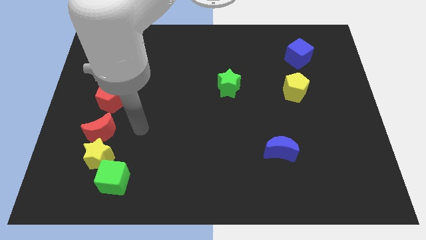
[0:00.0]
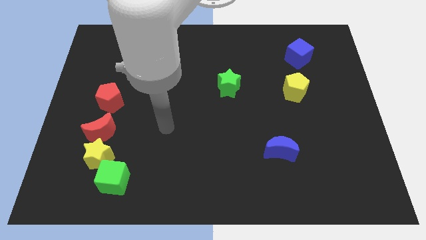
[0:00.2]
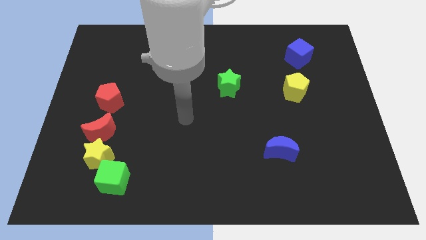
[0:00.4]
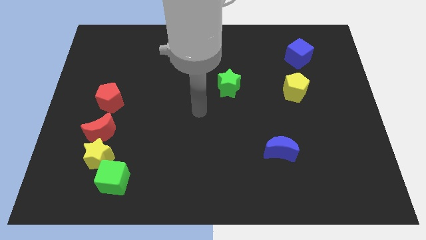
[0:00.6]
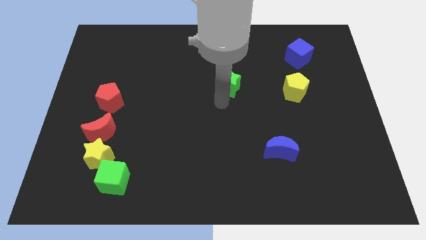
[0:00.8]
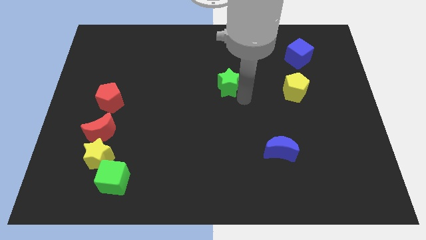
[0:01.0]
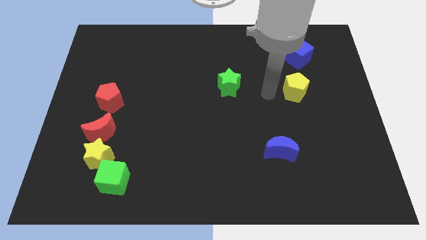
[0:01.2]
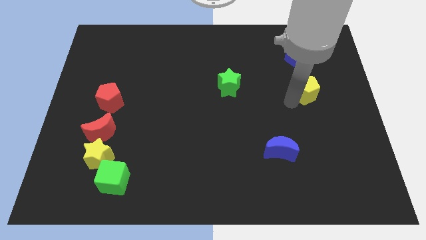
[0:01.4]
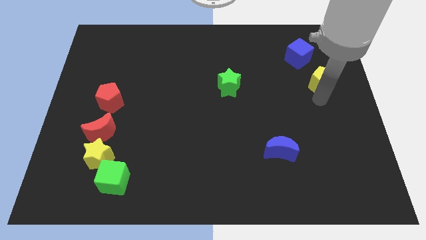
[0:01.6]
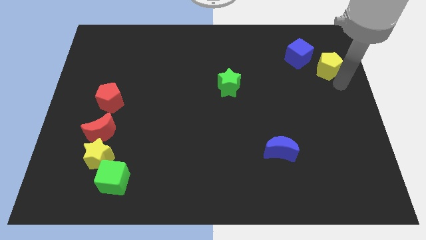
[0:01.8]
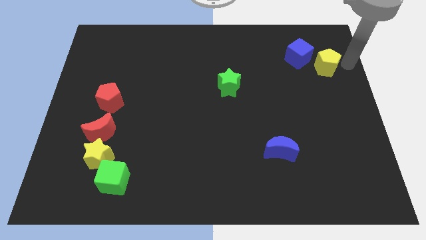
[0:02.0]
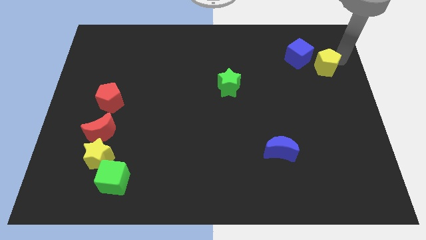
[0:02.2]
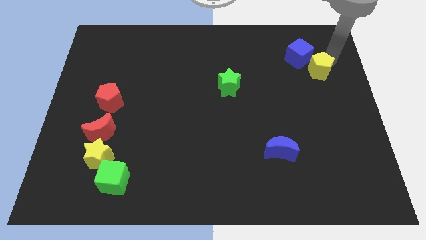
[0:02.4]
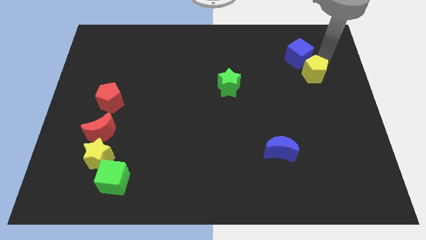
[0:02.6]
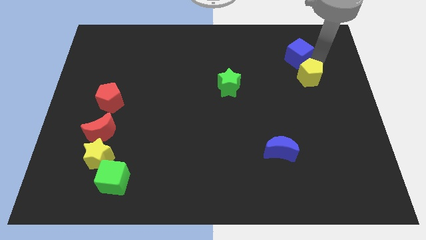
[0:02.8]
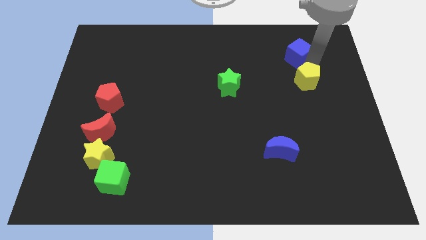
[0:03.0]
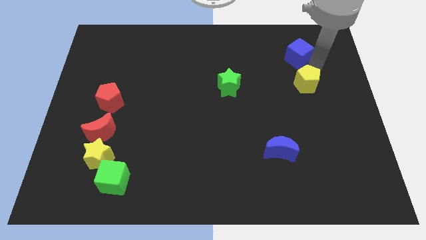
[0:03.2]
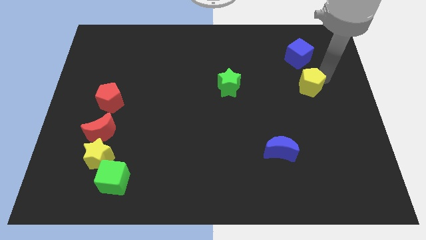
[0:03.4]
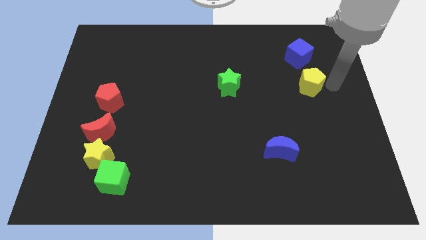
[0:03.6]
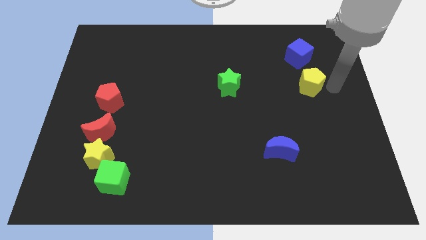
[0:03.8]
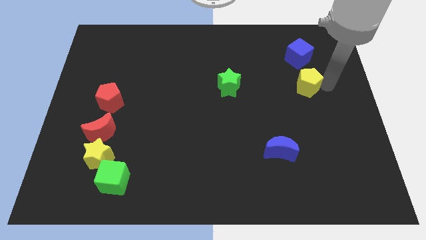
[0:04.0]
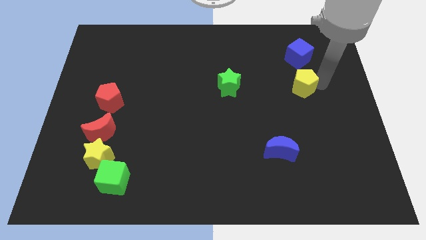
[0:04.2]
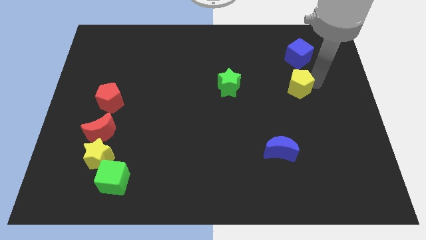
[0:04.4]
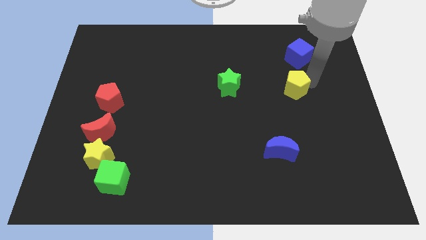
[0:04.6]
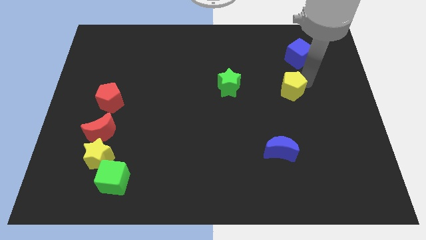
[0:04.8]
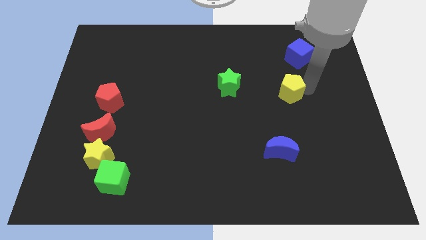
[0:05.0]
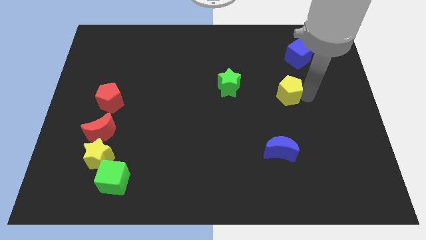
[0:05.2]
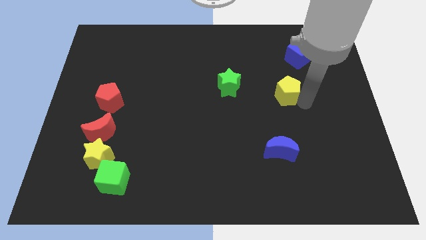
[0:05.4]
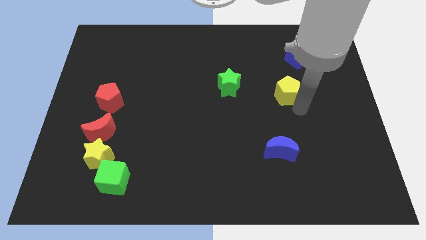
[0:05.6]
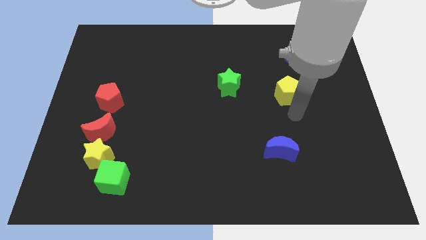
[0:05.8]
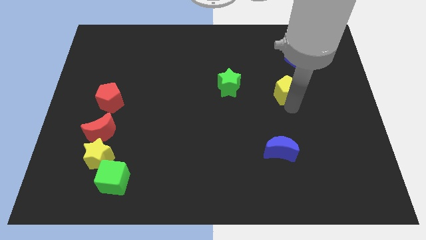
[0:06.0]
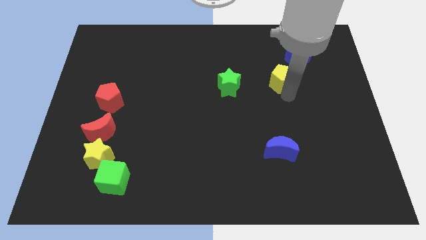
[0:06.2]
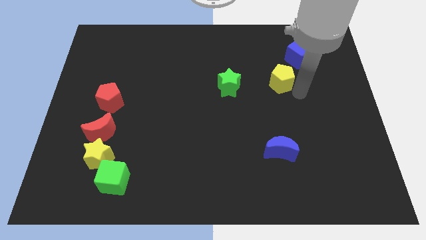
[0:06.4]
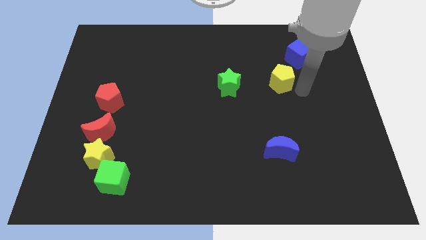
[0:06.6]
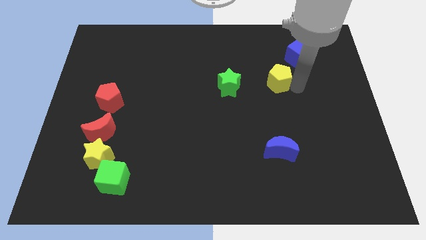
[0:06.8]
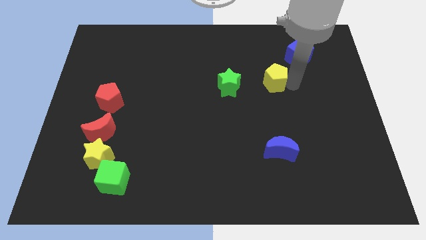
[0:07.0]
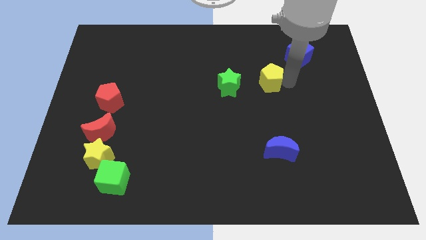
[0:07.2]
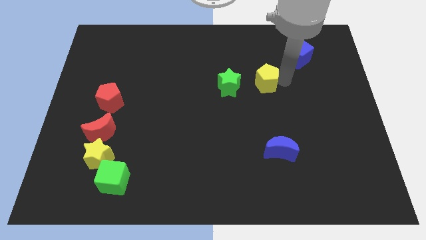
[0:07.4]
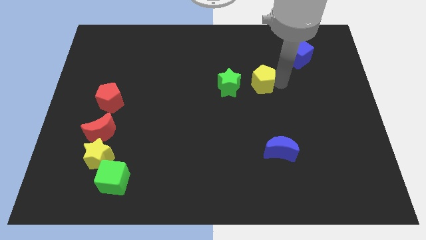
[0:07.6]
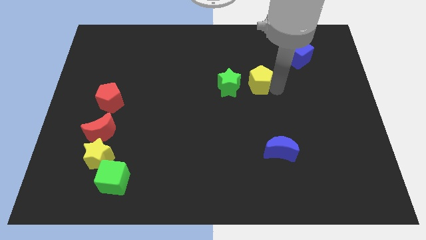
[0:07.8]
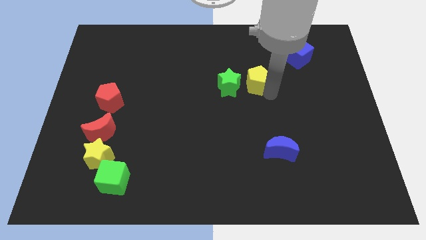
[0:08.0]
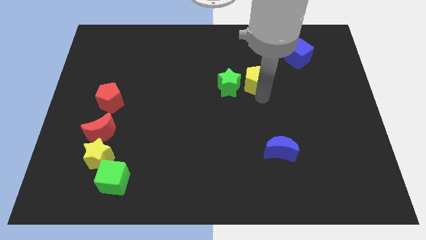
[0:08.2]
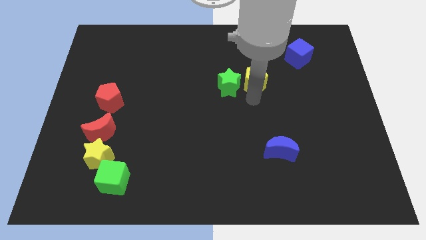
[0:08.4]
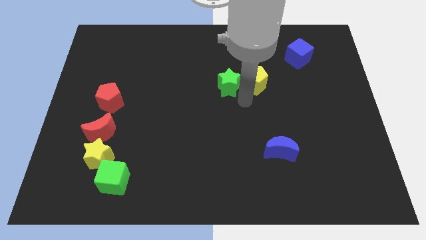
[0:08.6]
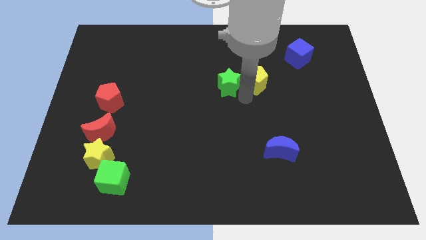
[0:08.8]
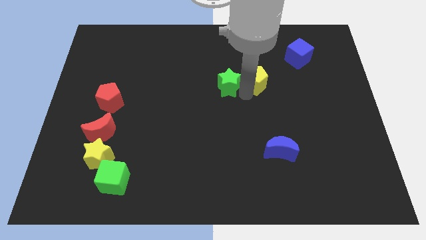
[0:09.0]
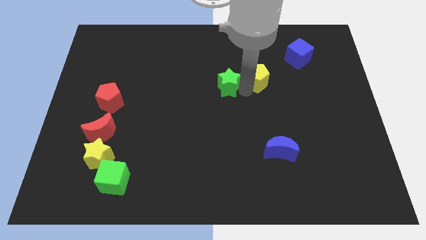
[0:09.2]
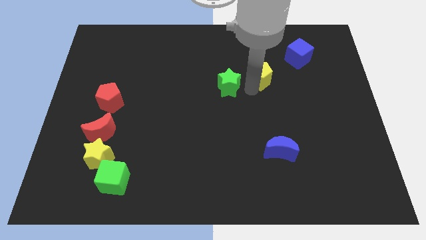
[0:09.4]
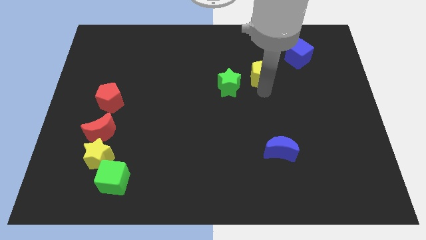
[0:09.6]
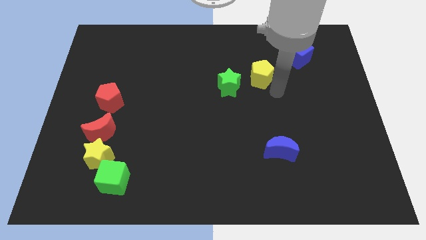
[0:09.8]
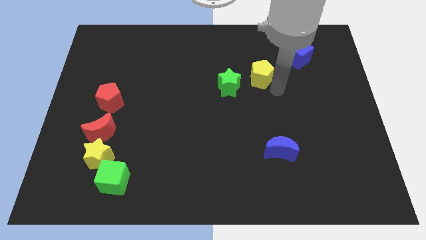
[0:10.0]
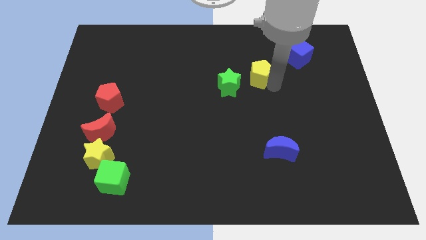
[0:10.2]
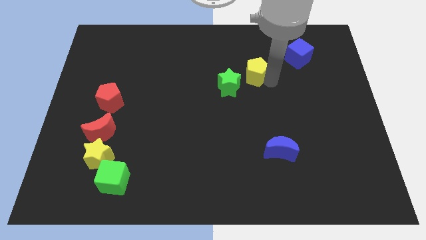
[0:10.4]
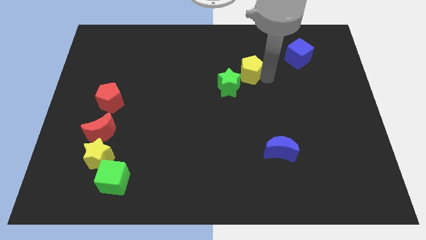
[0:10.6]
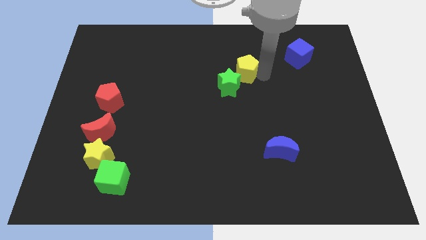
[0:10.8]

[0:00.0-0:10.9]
move the yellow pentagon to the top side of the green star

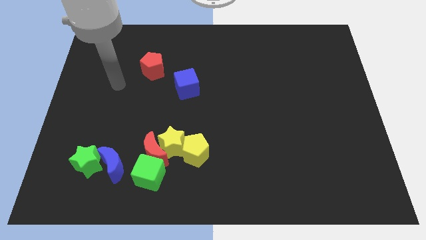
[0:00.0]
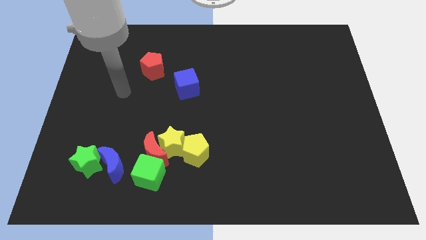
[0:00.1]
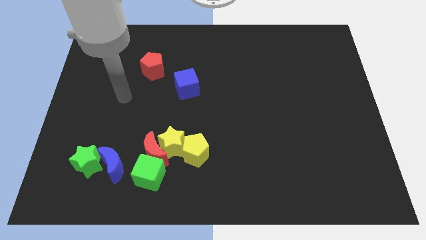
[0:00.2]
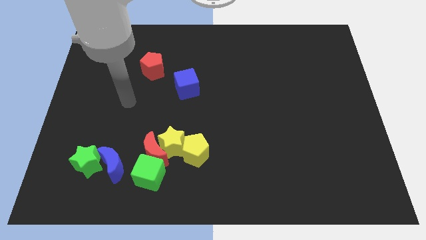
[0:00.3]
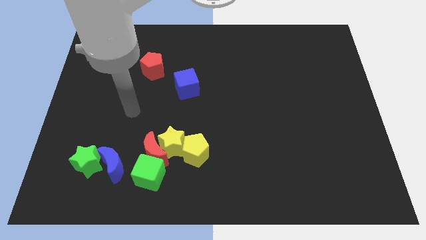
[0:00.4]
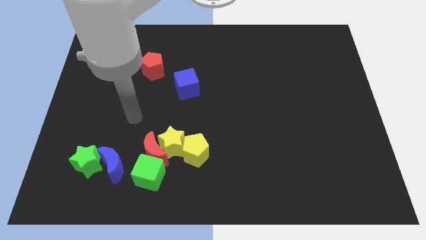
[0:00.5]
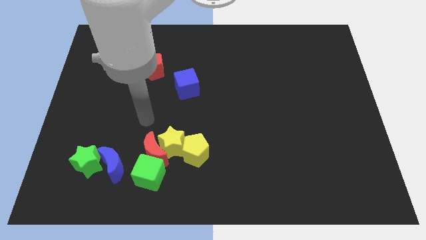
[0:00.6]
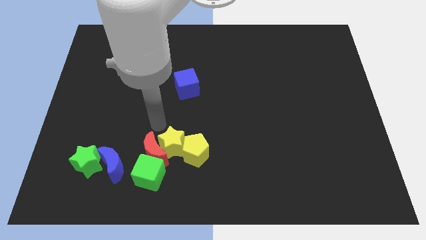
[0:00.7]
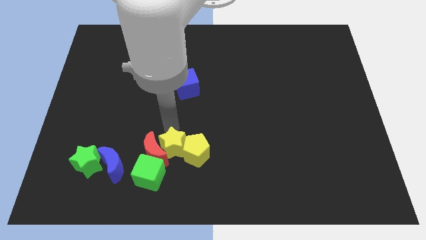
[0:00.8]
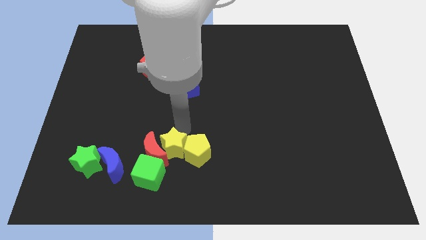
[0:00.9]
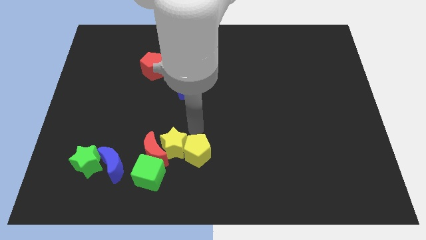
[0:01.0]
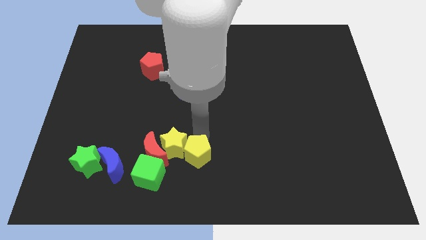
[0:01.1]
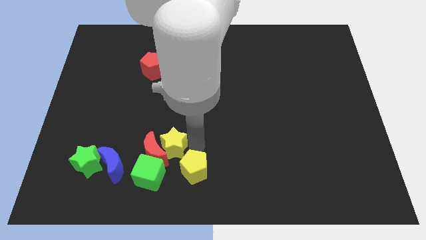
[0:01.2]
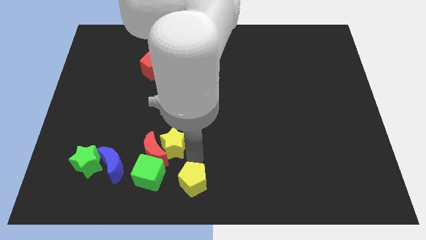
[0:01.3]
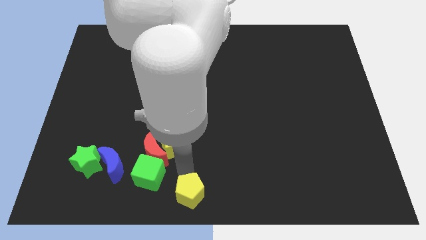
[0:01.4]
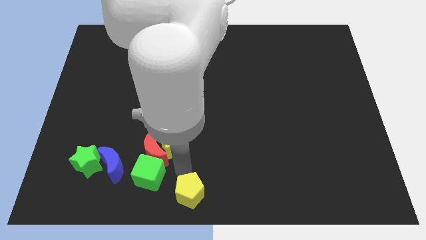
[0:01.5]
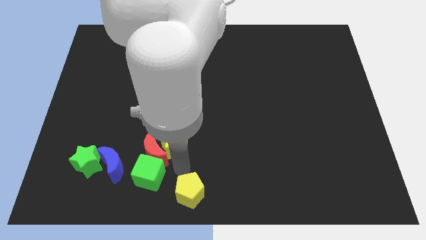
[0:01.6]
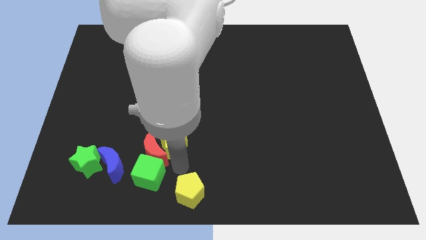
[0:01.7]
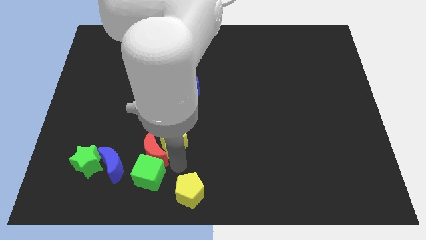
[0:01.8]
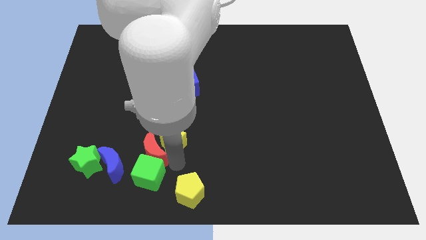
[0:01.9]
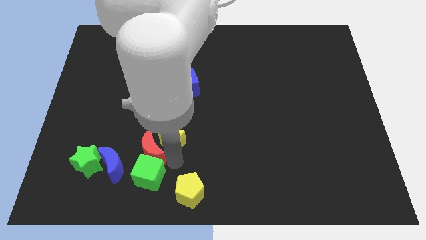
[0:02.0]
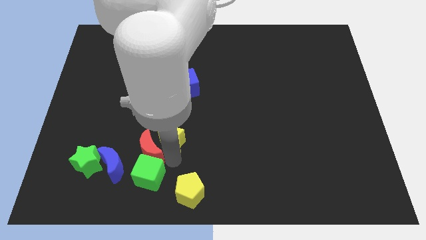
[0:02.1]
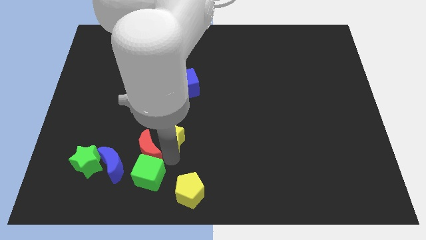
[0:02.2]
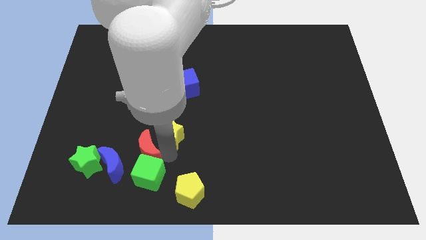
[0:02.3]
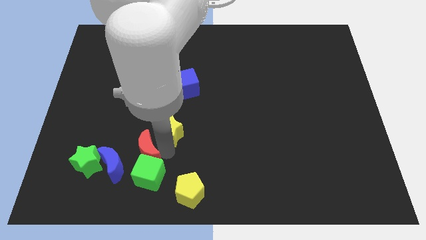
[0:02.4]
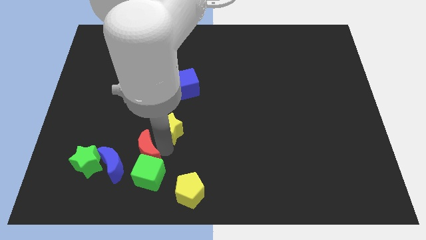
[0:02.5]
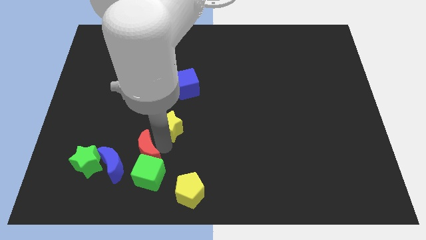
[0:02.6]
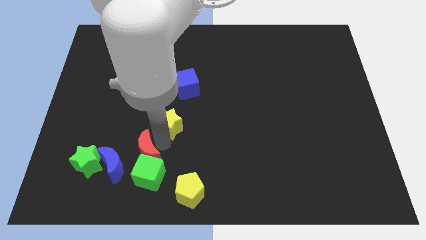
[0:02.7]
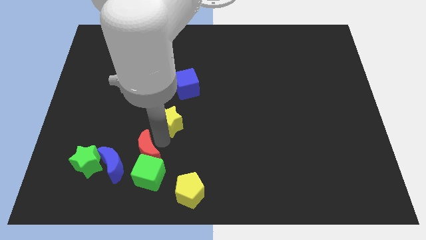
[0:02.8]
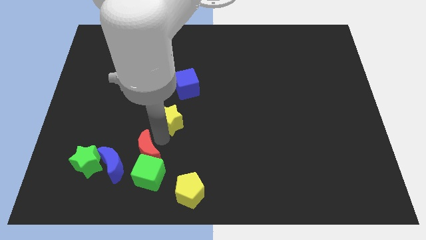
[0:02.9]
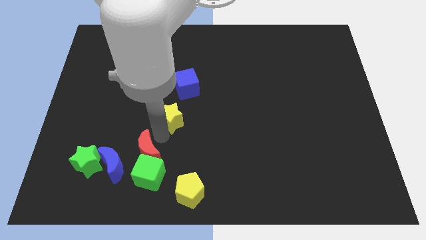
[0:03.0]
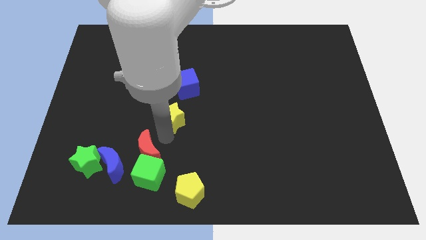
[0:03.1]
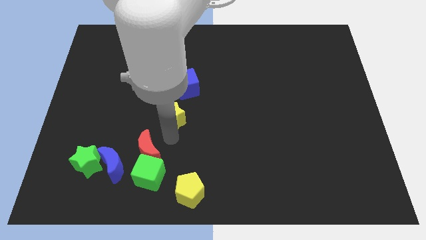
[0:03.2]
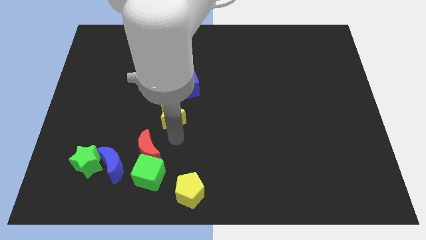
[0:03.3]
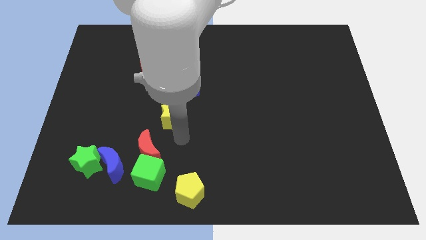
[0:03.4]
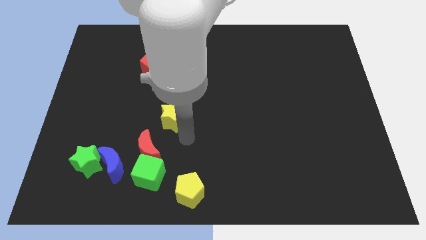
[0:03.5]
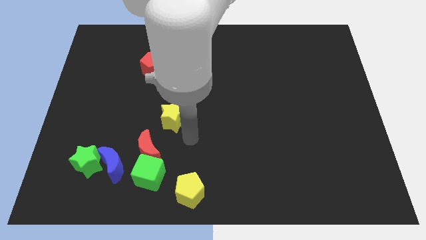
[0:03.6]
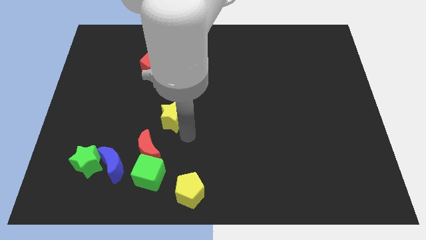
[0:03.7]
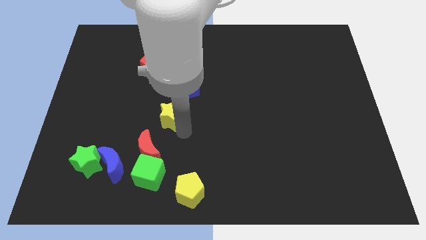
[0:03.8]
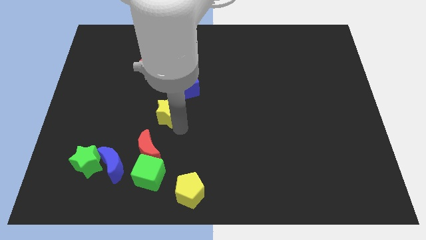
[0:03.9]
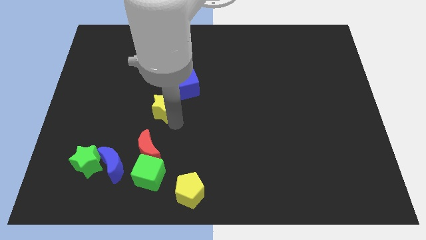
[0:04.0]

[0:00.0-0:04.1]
put the yellow star to the bottom of the red pentagon
